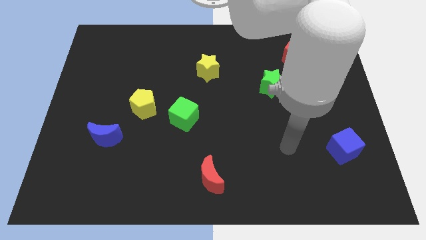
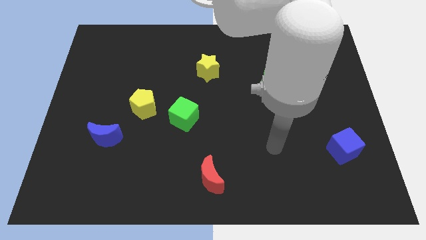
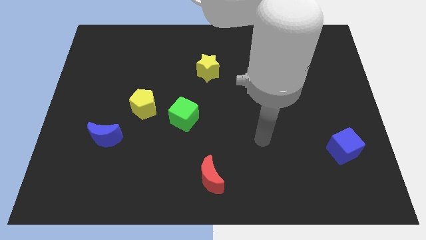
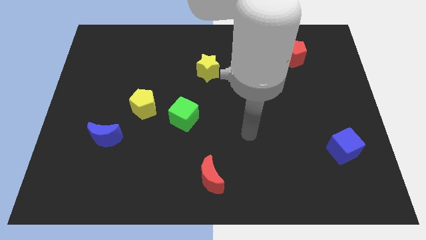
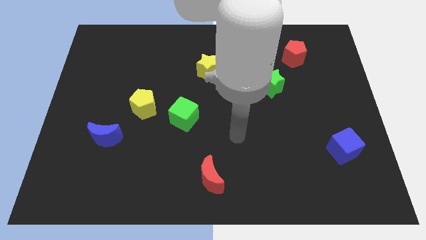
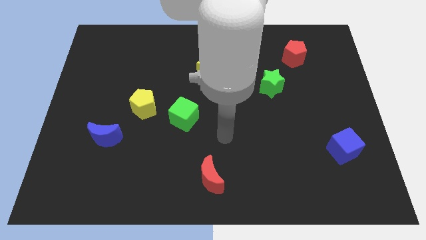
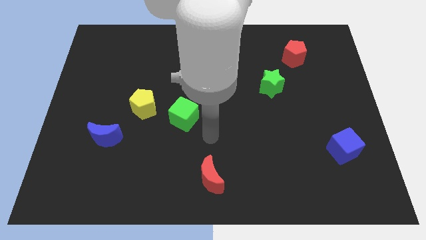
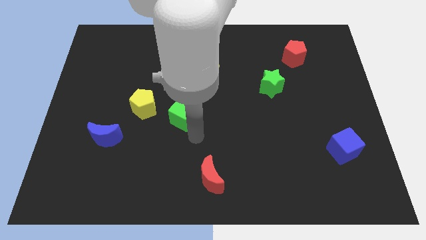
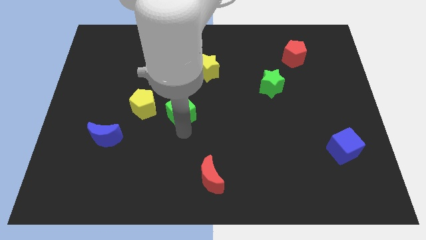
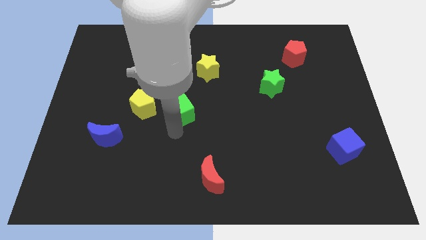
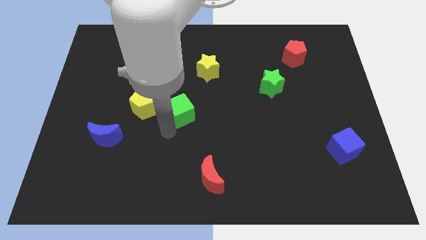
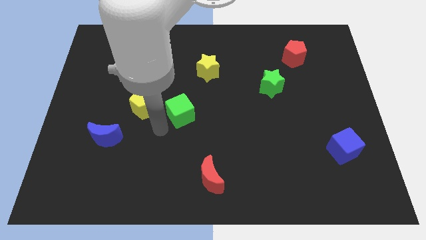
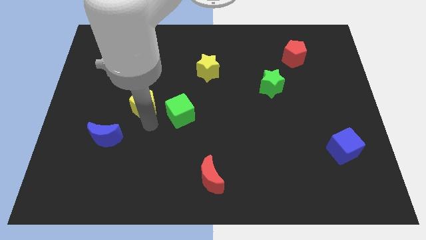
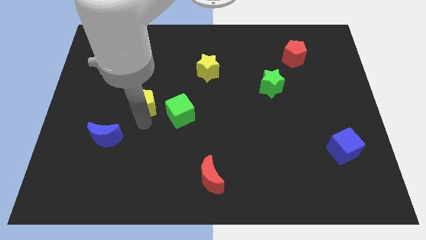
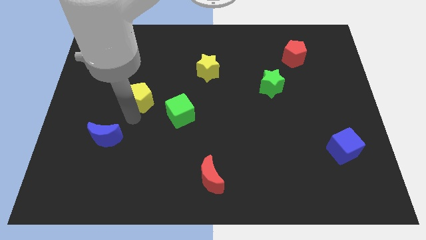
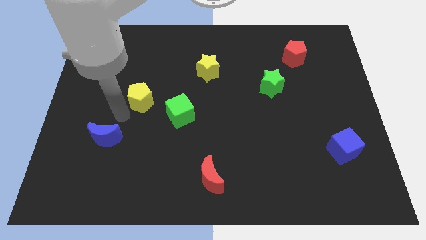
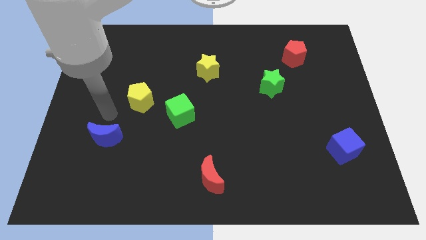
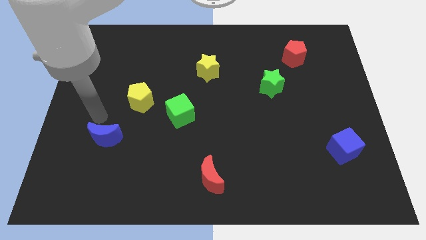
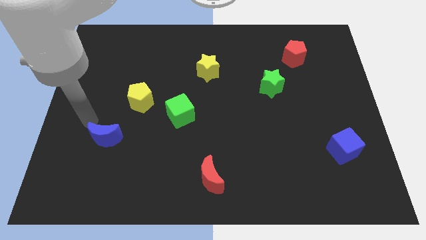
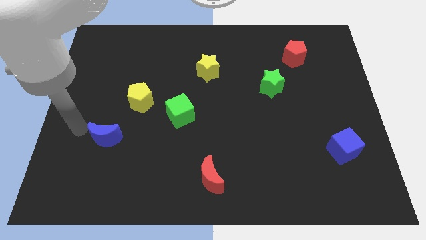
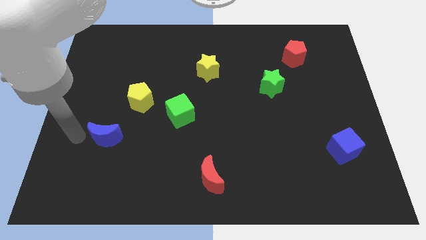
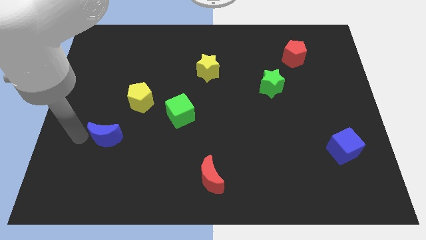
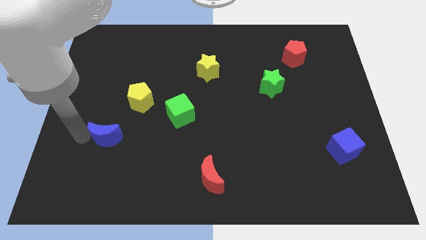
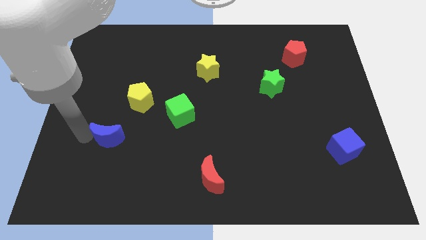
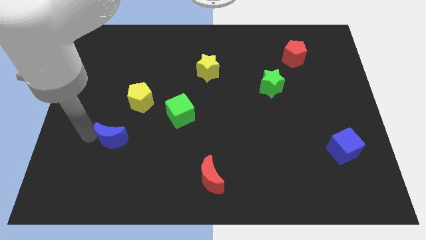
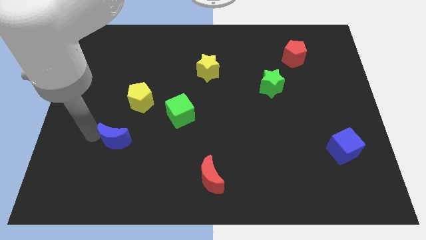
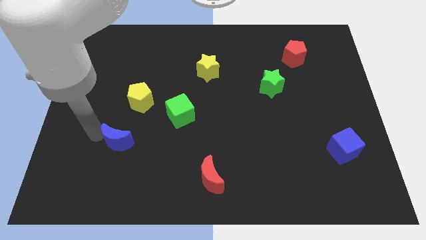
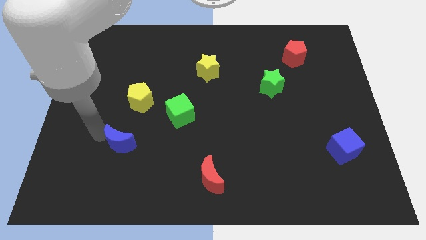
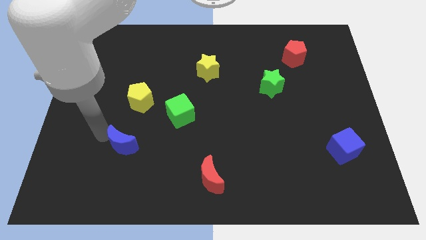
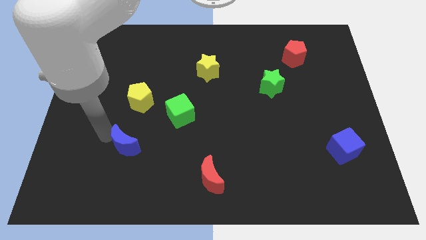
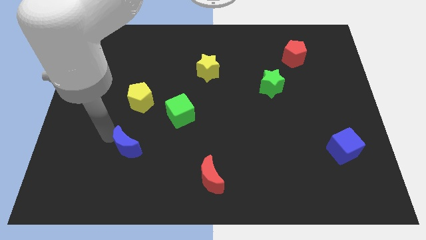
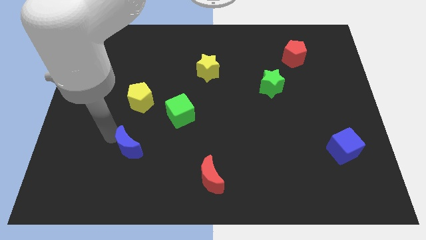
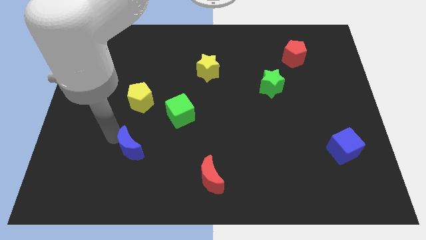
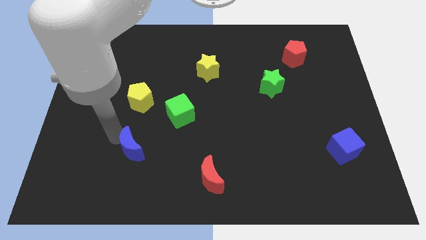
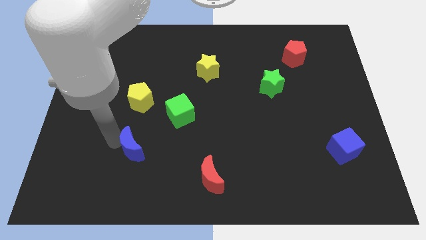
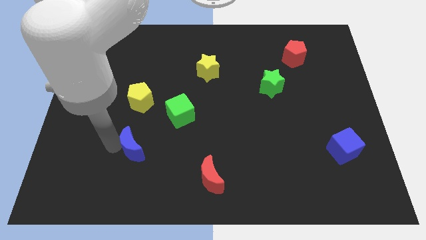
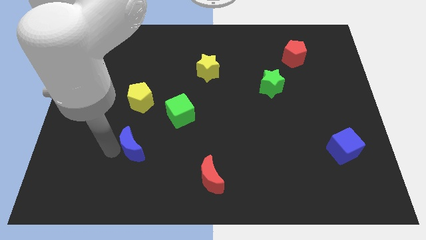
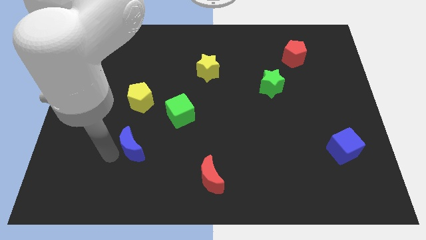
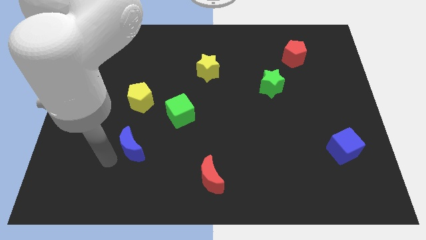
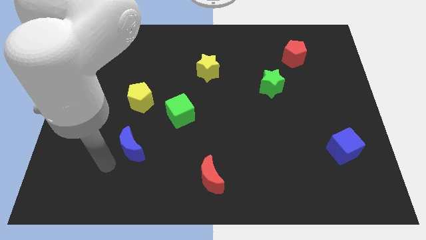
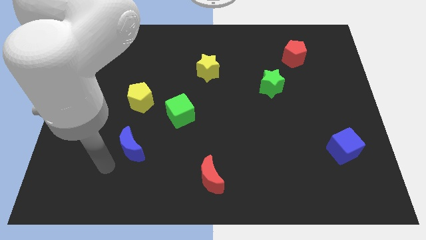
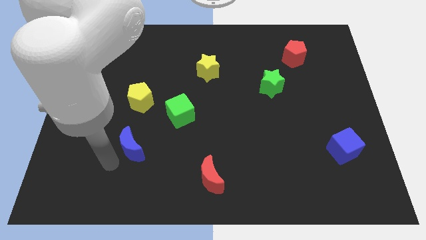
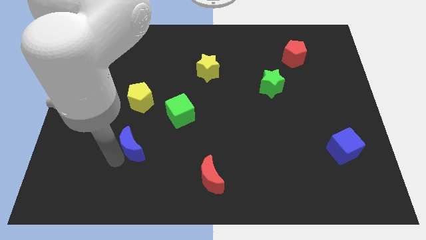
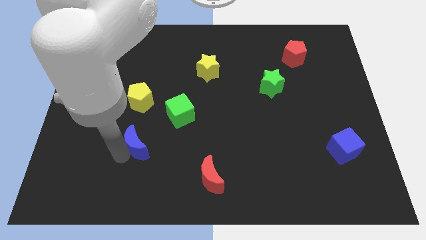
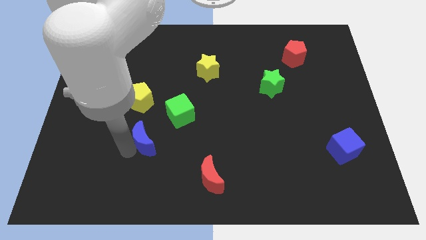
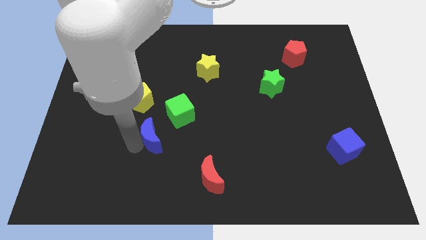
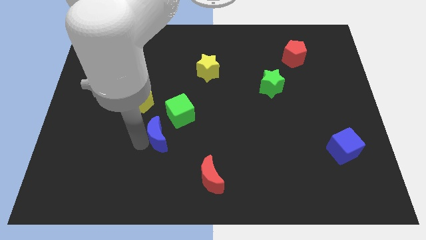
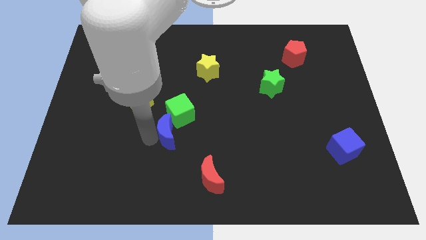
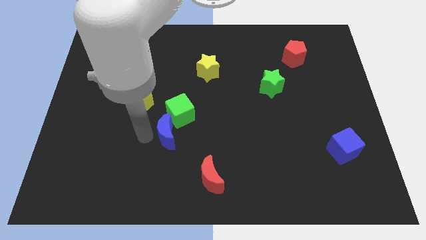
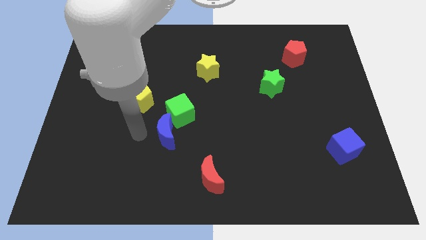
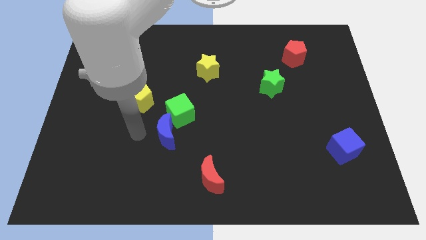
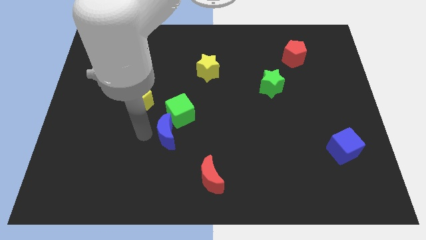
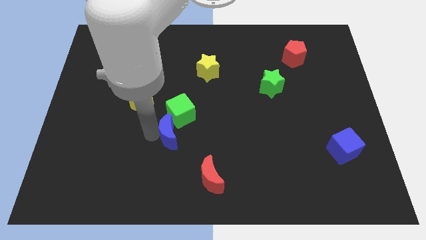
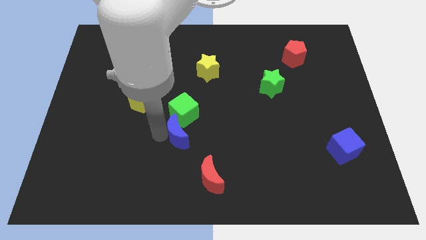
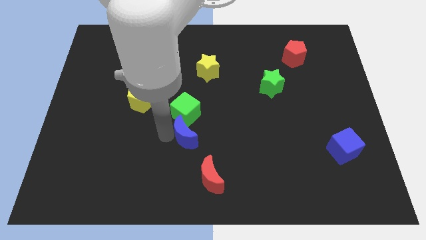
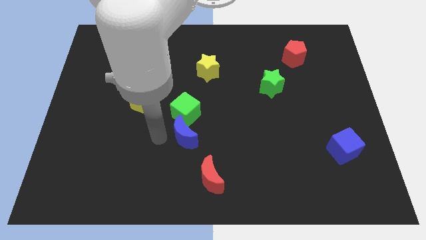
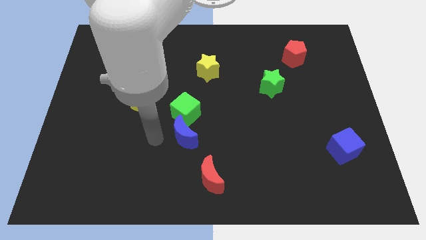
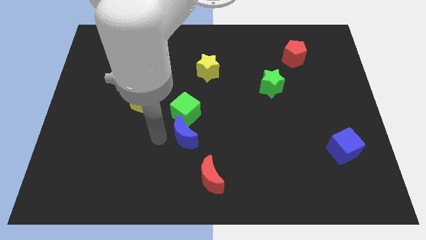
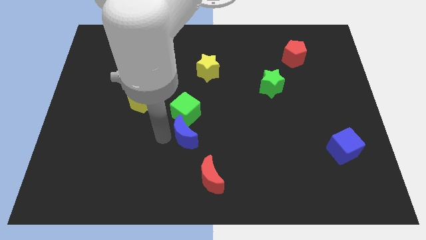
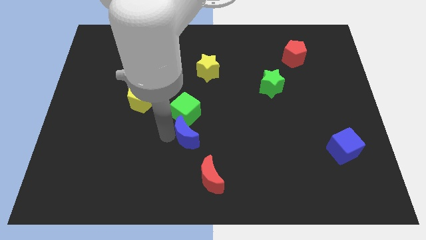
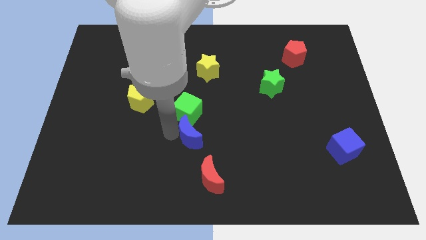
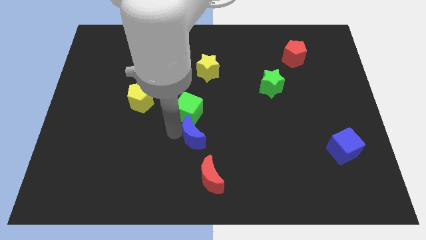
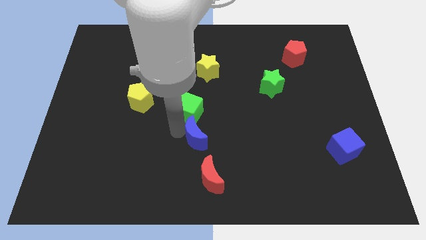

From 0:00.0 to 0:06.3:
push the blue moon to the right

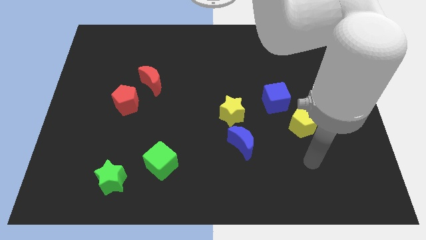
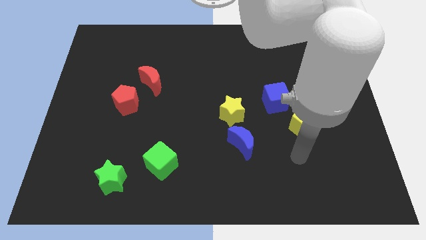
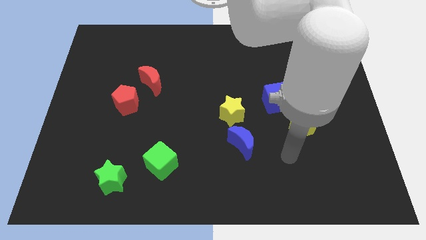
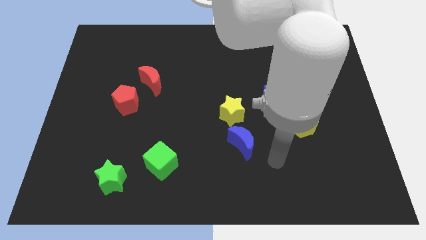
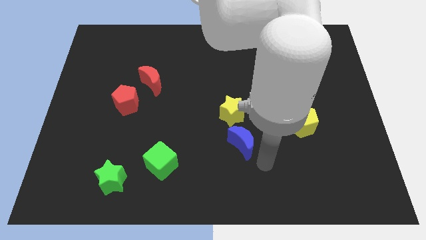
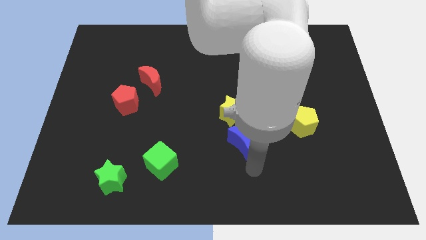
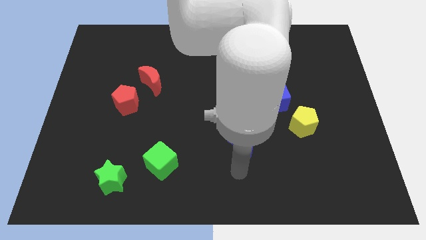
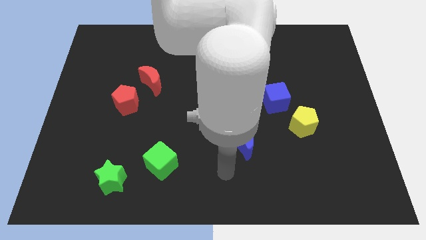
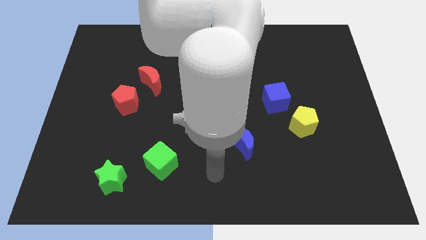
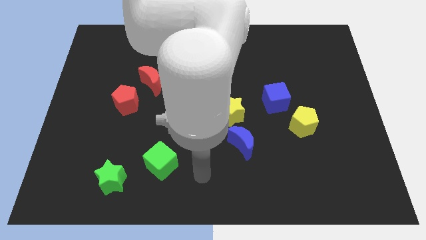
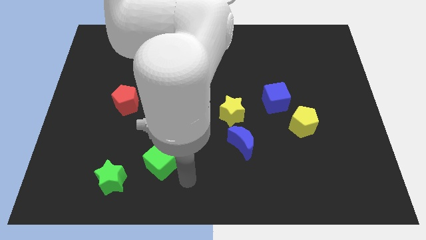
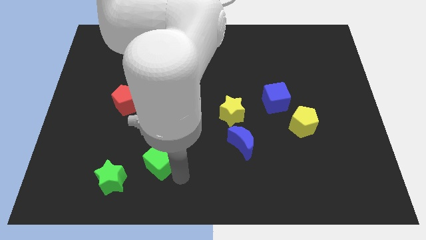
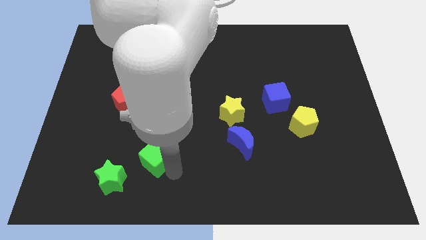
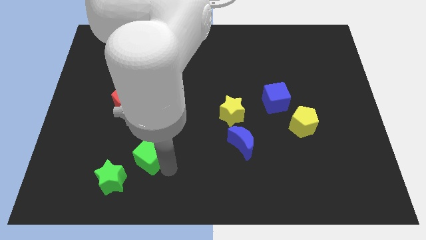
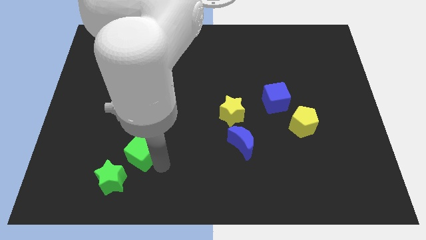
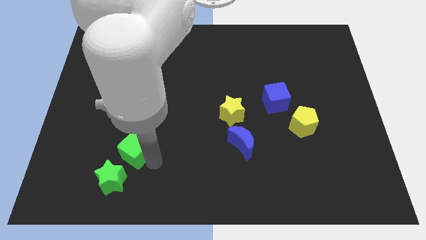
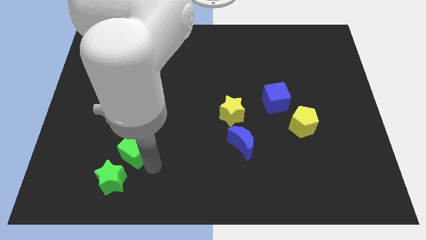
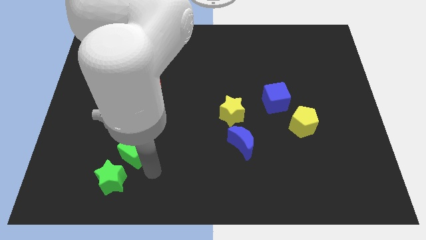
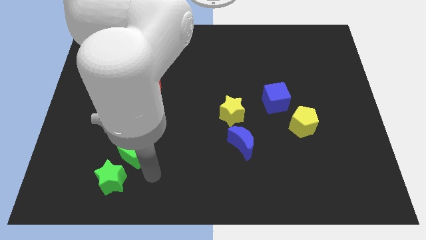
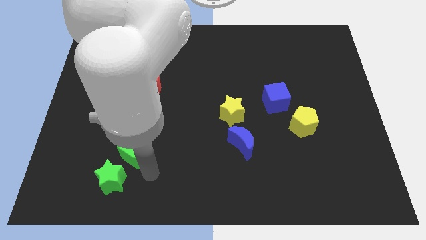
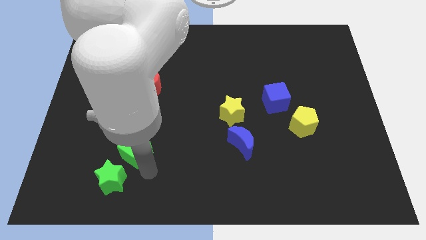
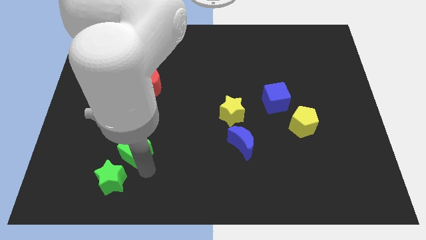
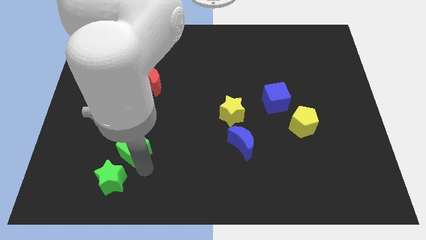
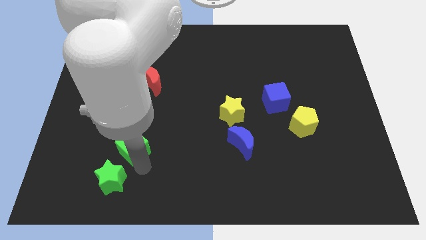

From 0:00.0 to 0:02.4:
move the green cube diagonally up and left a bit
